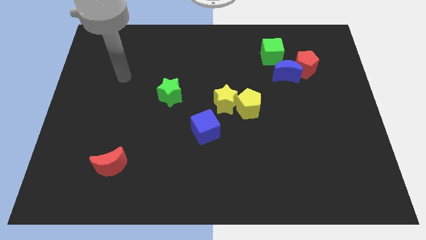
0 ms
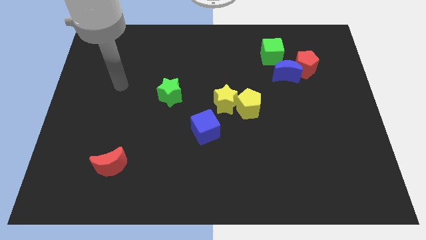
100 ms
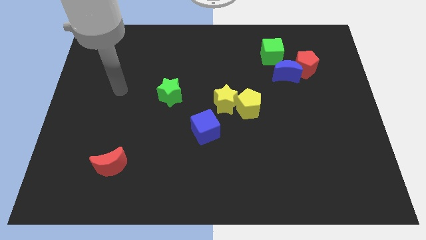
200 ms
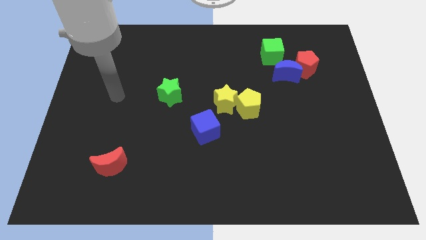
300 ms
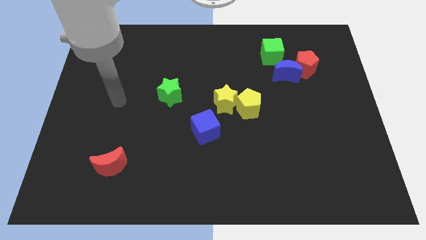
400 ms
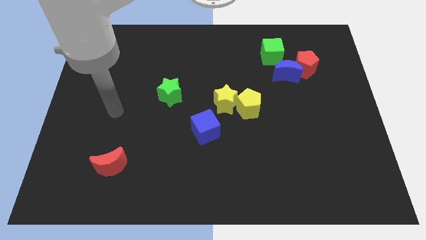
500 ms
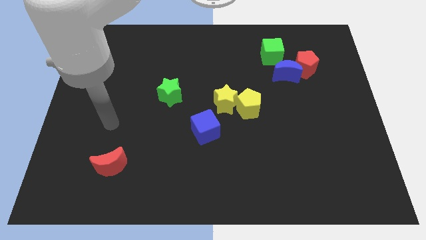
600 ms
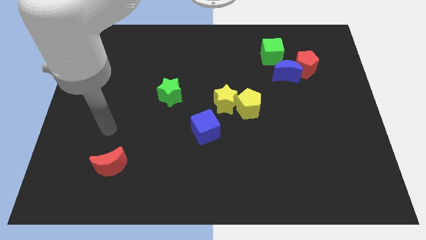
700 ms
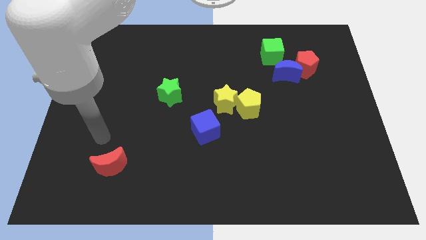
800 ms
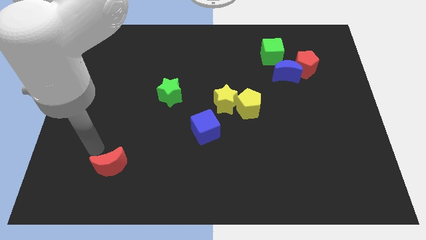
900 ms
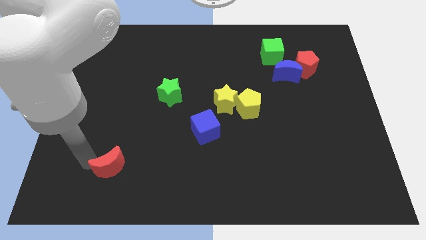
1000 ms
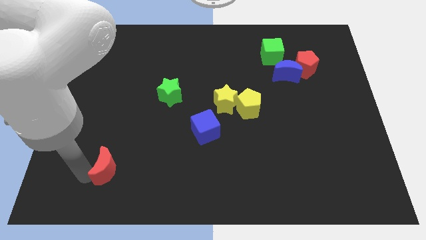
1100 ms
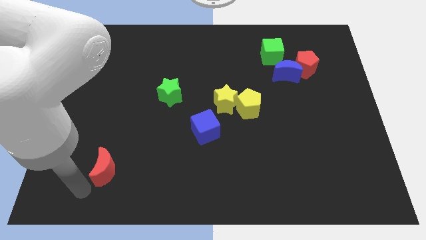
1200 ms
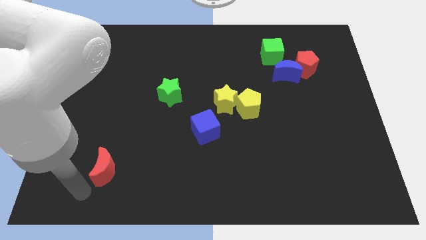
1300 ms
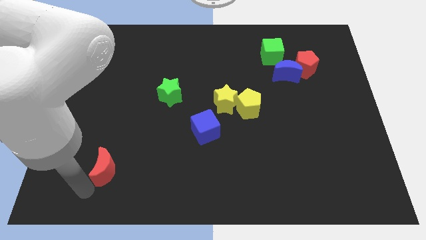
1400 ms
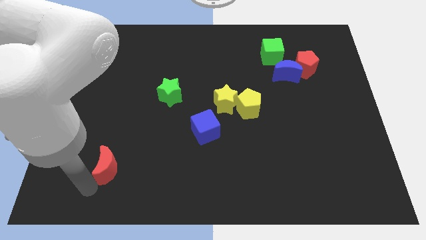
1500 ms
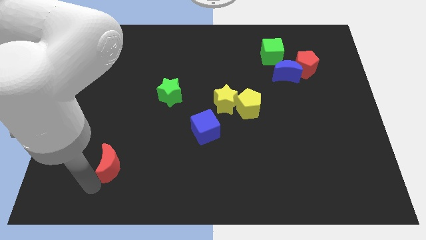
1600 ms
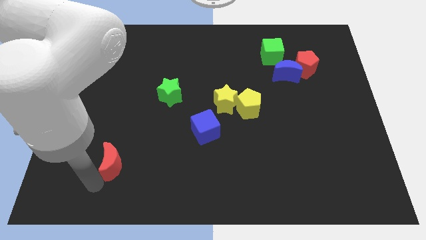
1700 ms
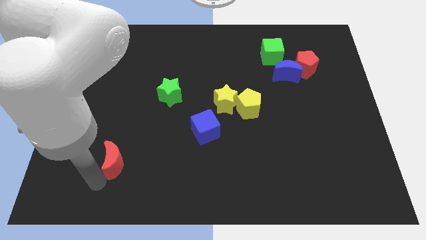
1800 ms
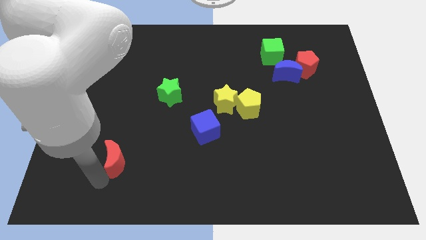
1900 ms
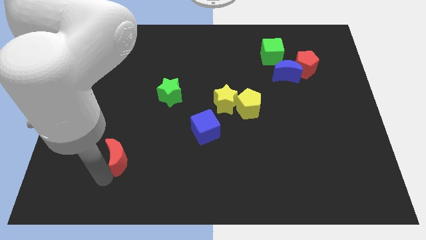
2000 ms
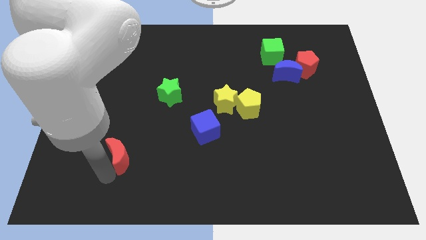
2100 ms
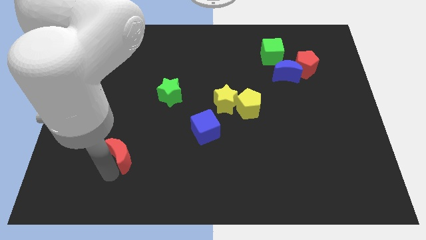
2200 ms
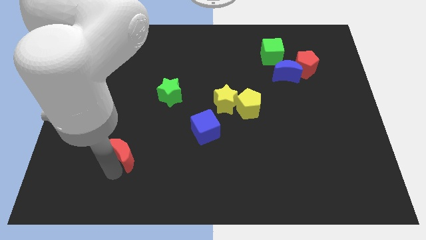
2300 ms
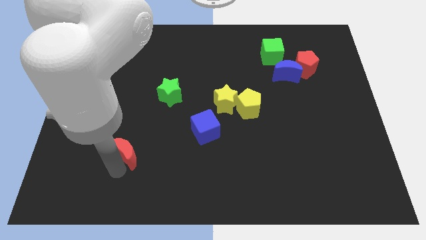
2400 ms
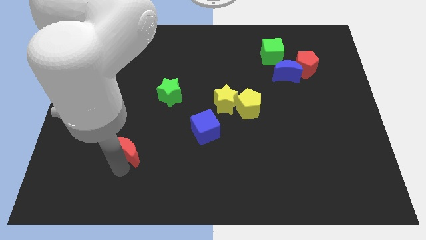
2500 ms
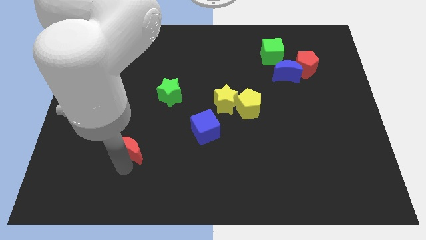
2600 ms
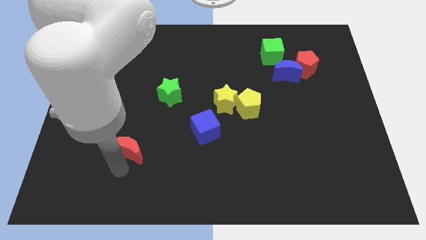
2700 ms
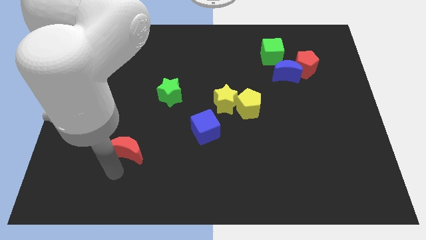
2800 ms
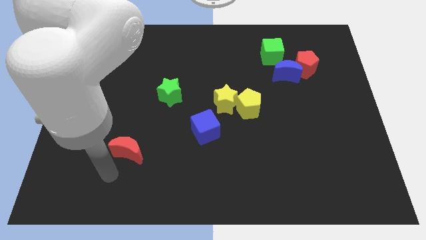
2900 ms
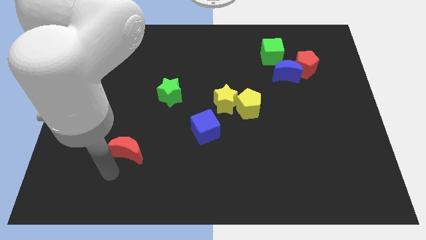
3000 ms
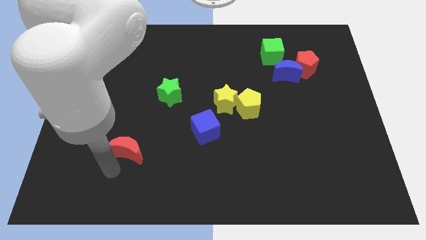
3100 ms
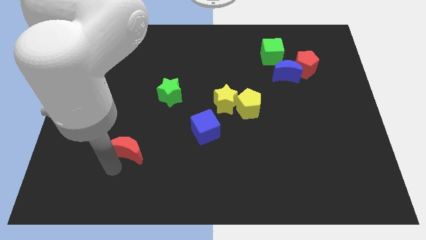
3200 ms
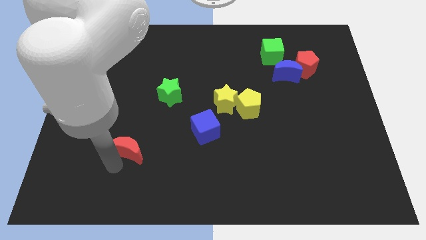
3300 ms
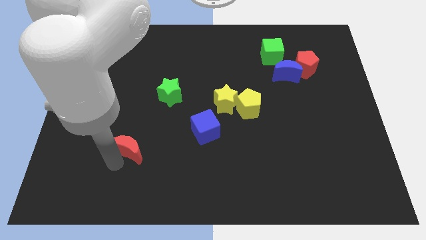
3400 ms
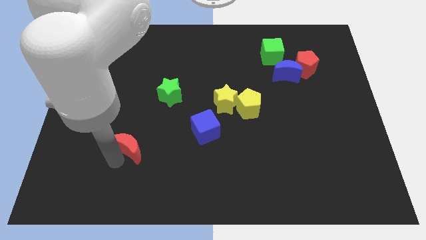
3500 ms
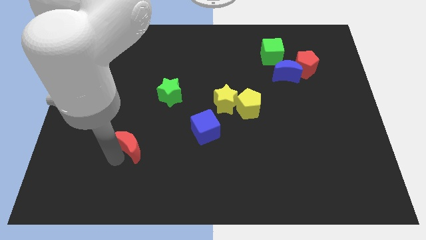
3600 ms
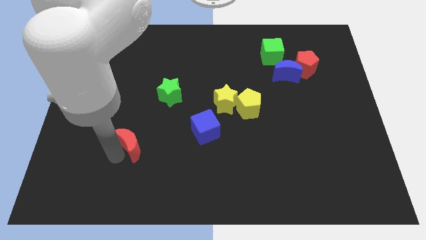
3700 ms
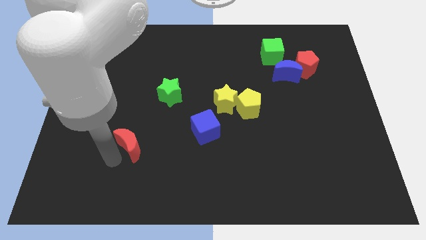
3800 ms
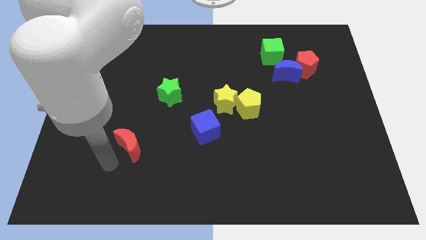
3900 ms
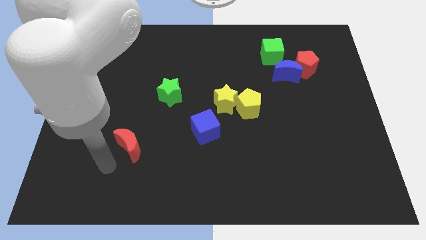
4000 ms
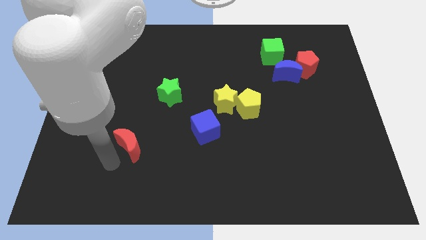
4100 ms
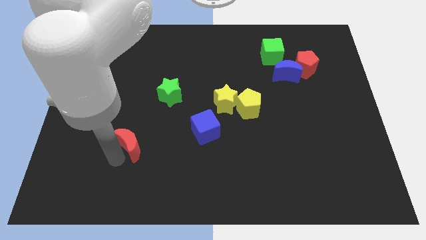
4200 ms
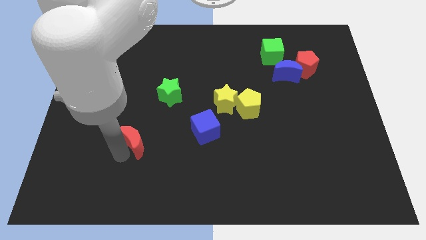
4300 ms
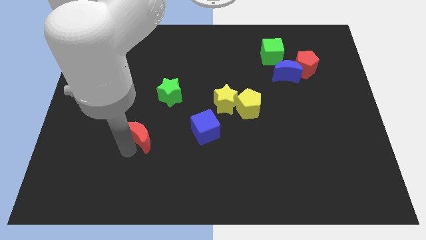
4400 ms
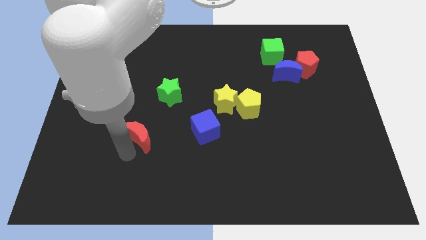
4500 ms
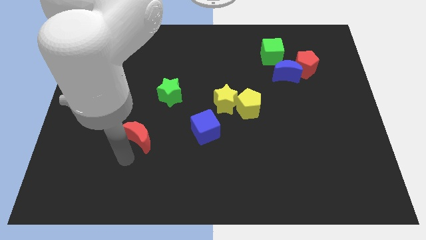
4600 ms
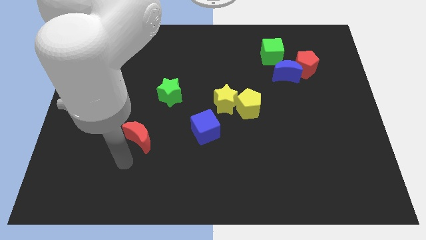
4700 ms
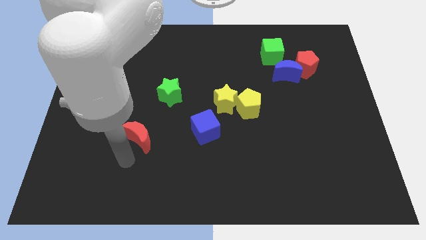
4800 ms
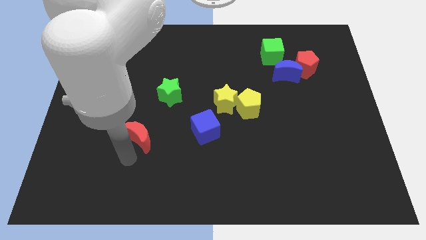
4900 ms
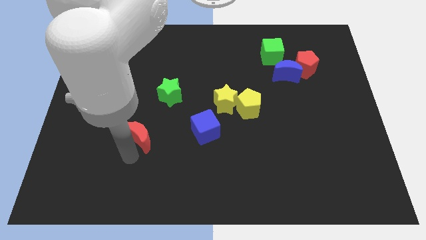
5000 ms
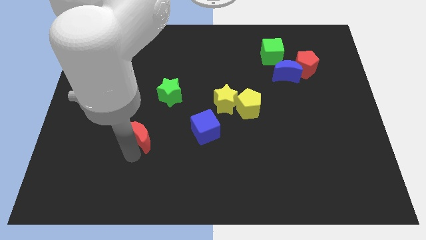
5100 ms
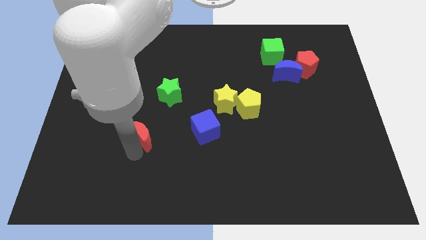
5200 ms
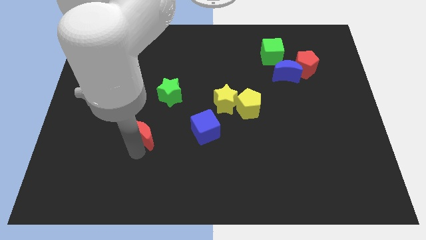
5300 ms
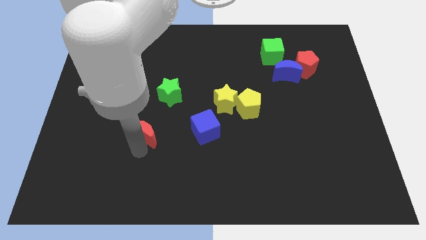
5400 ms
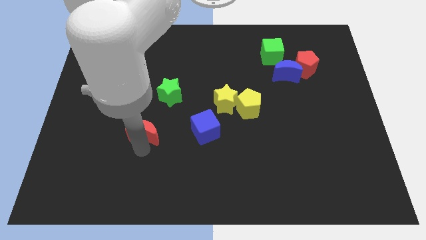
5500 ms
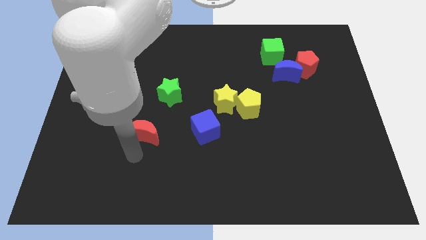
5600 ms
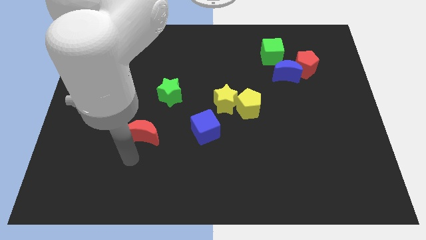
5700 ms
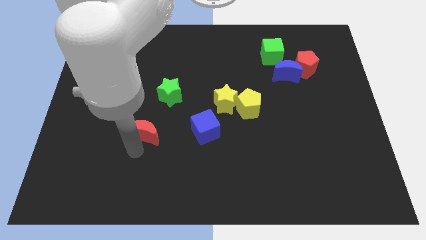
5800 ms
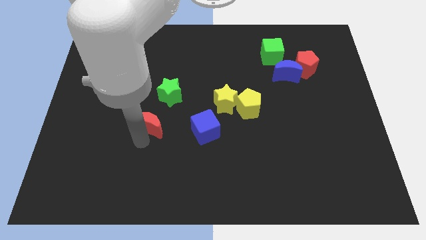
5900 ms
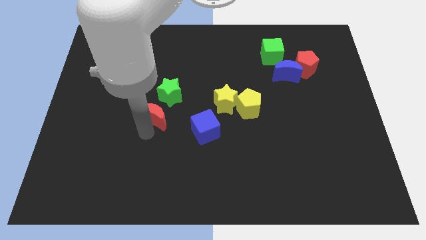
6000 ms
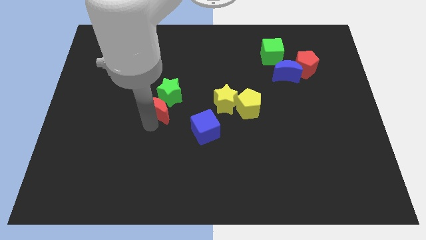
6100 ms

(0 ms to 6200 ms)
move the red moon close to the green star

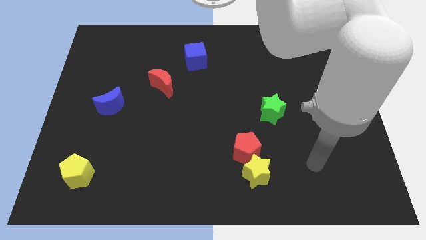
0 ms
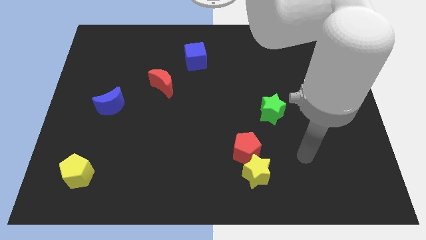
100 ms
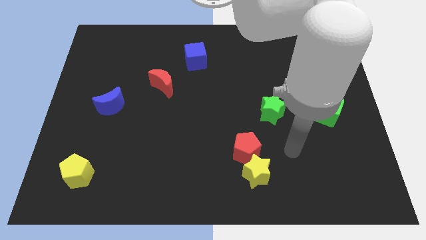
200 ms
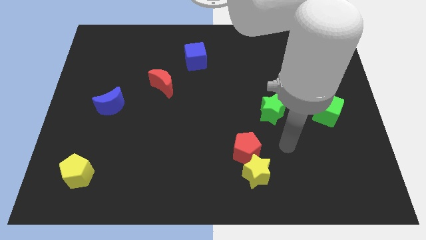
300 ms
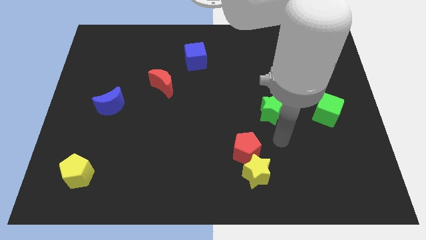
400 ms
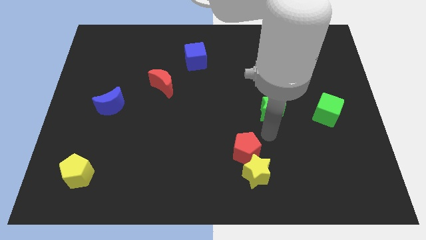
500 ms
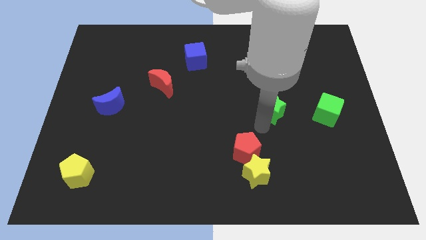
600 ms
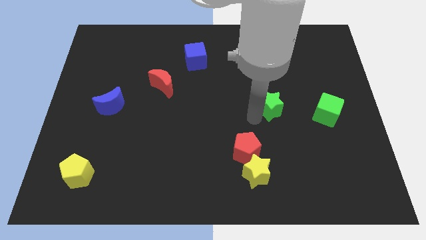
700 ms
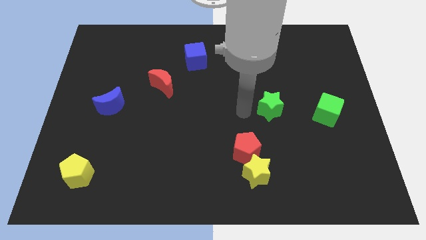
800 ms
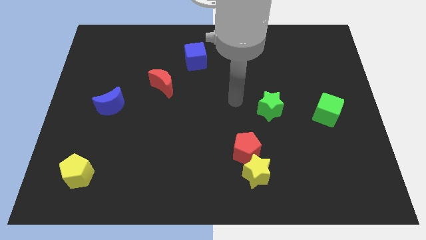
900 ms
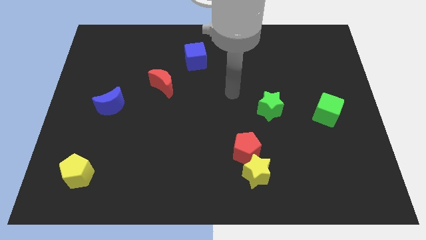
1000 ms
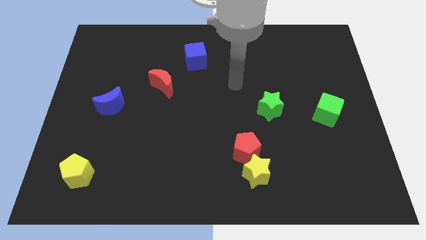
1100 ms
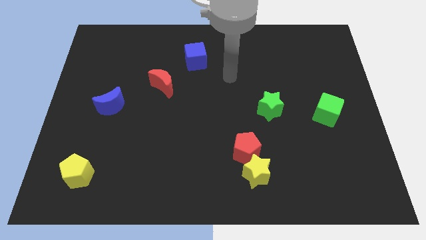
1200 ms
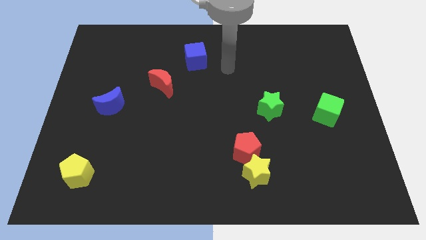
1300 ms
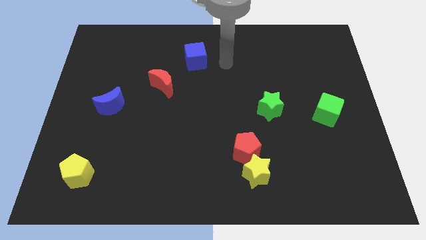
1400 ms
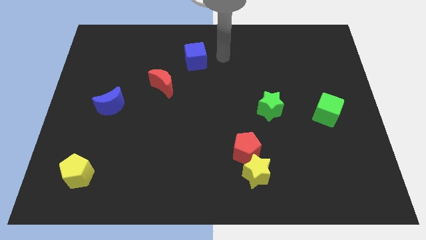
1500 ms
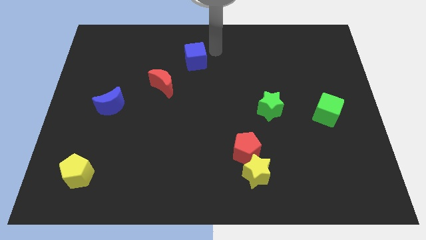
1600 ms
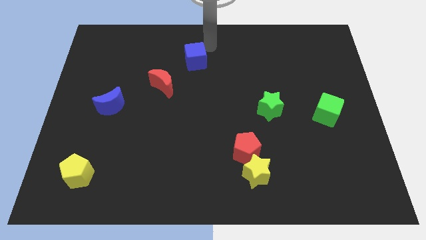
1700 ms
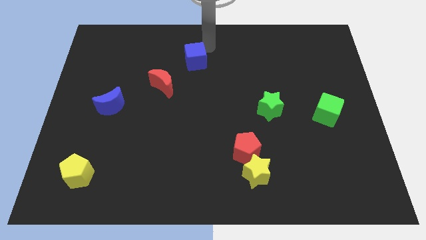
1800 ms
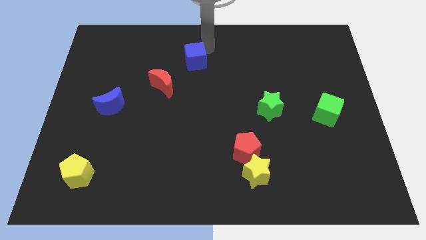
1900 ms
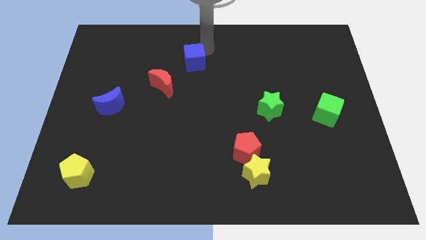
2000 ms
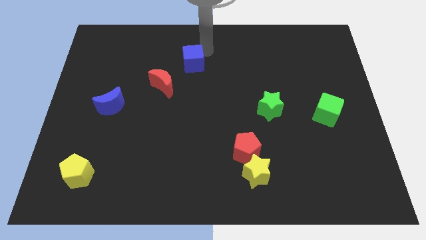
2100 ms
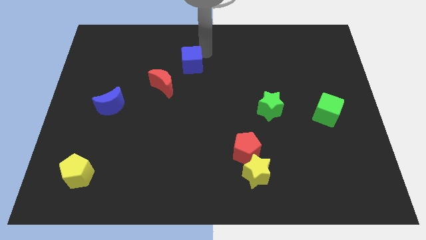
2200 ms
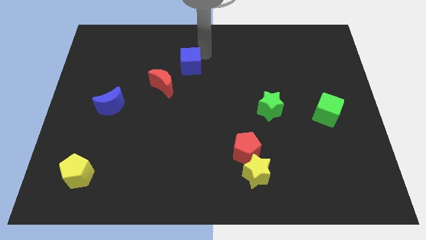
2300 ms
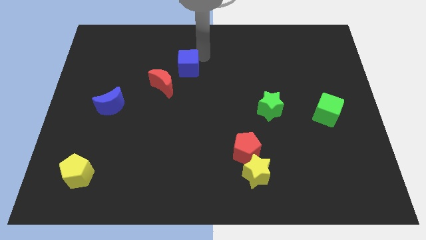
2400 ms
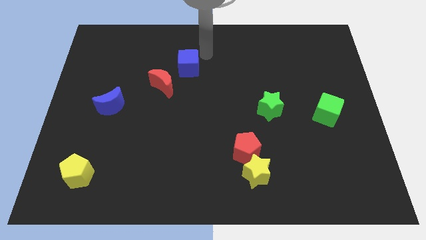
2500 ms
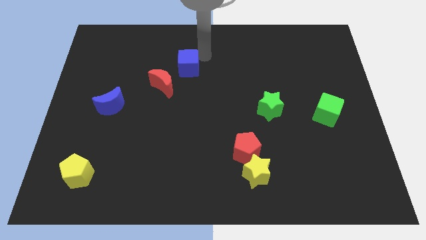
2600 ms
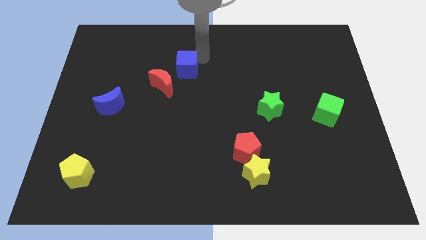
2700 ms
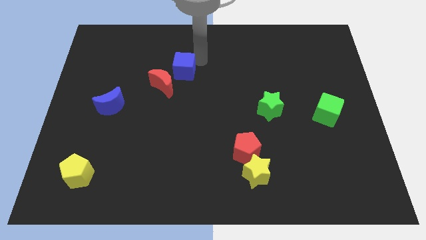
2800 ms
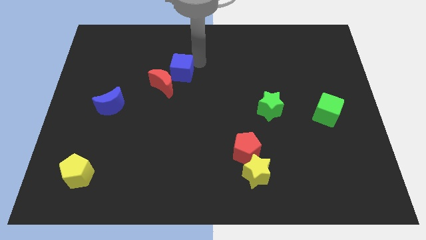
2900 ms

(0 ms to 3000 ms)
push the blue cube next to the red moon
